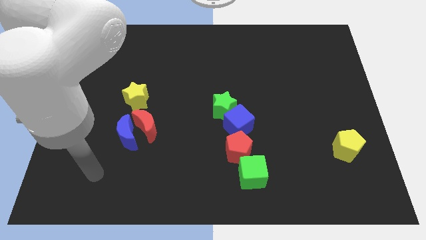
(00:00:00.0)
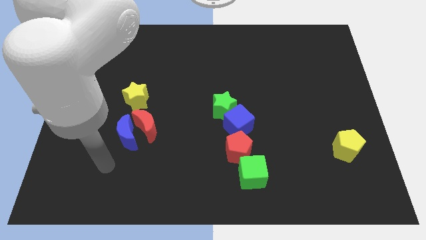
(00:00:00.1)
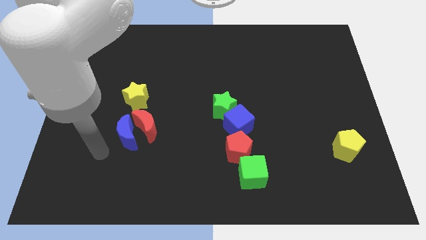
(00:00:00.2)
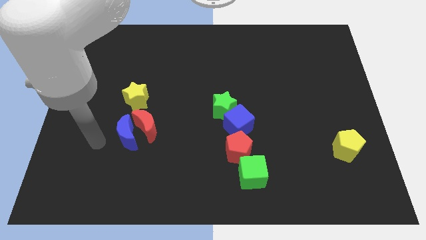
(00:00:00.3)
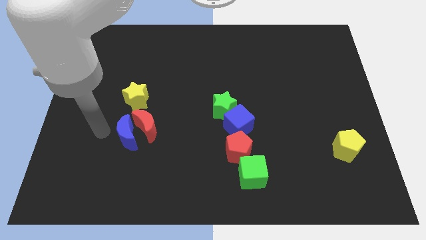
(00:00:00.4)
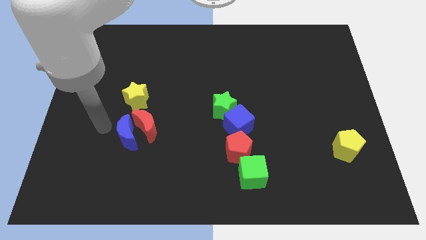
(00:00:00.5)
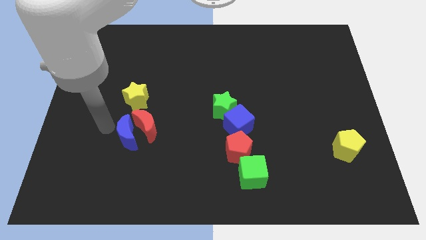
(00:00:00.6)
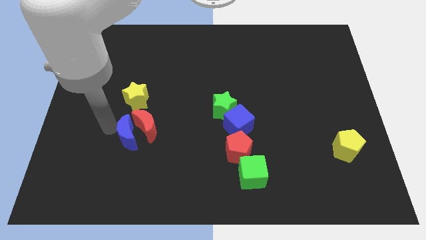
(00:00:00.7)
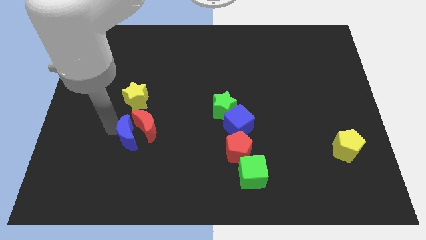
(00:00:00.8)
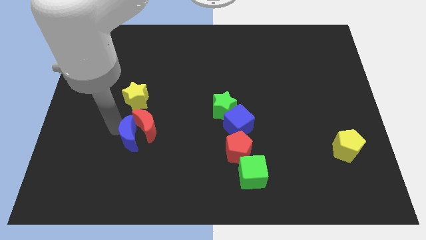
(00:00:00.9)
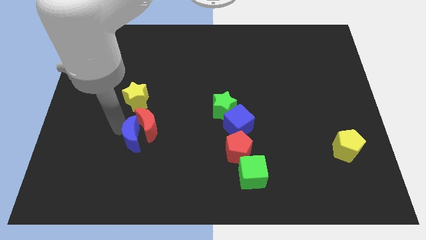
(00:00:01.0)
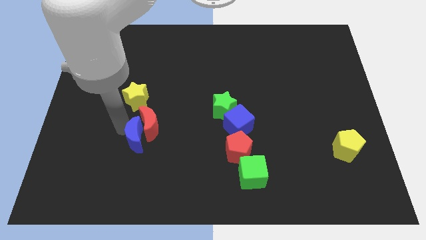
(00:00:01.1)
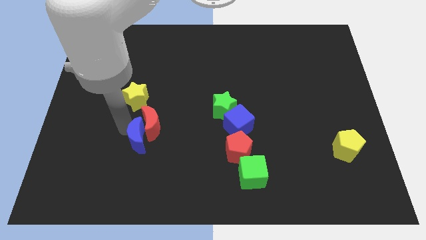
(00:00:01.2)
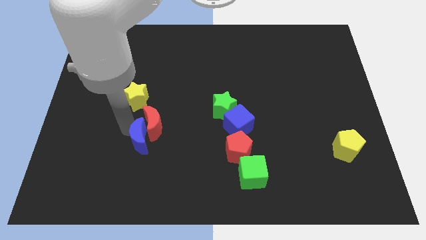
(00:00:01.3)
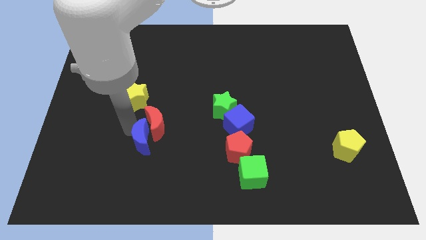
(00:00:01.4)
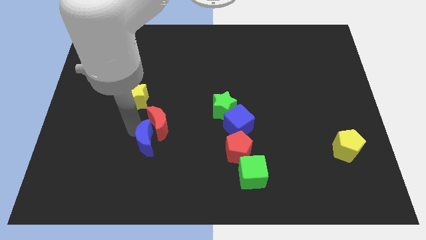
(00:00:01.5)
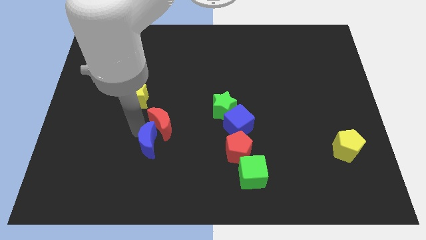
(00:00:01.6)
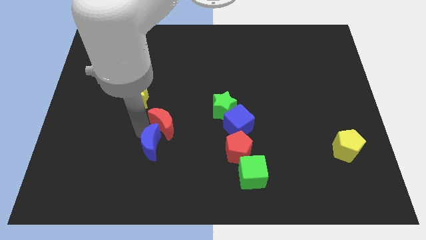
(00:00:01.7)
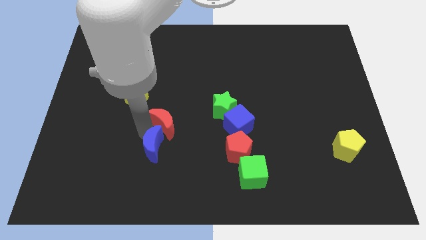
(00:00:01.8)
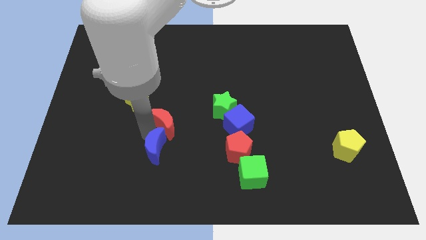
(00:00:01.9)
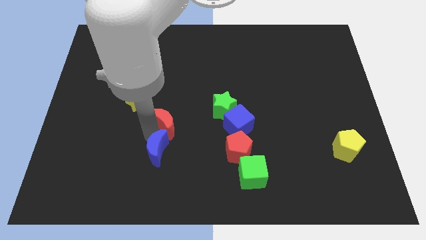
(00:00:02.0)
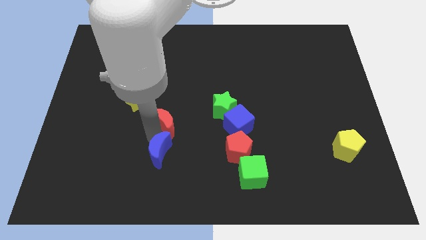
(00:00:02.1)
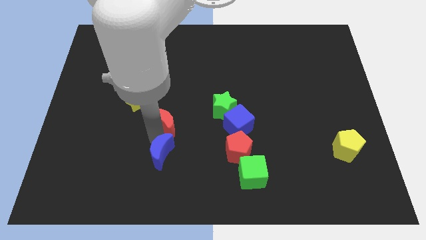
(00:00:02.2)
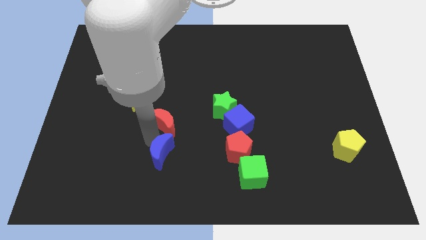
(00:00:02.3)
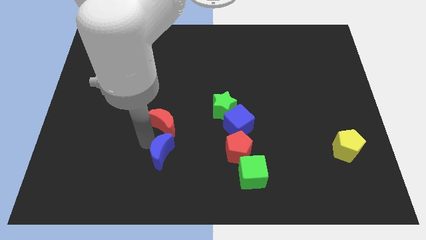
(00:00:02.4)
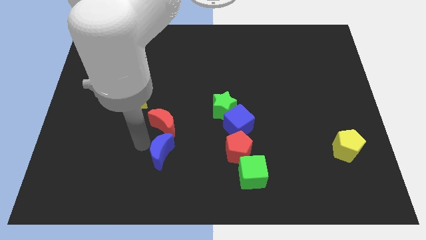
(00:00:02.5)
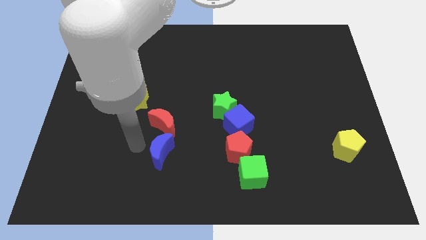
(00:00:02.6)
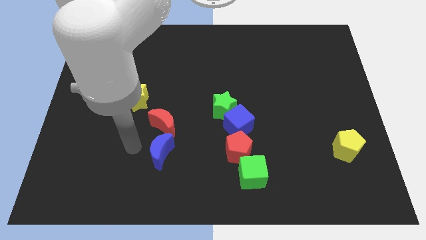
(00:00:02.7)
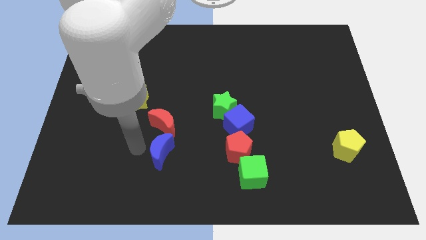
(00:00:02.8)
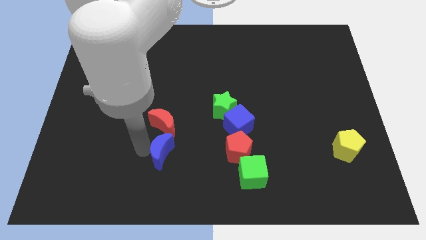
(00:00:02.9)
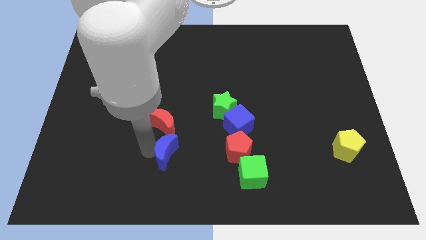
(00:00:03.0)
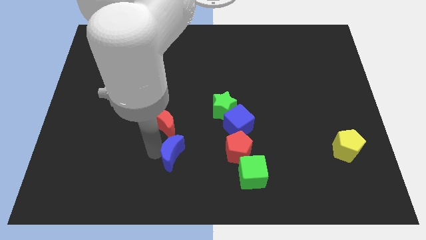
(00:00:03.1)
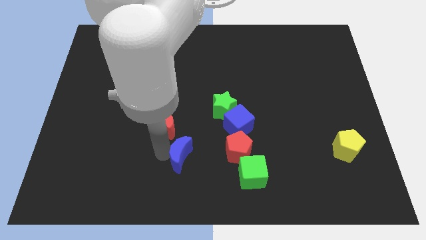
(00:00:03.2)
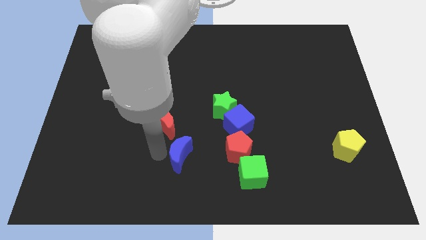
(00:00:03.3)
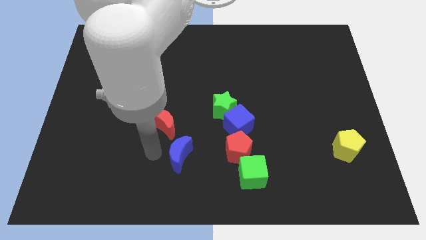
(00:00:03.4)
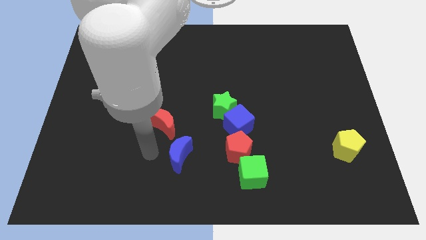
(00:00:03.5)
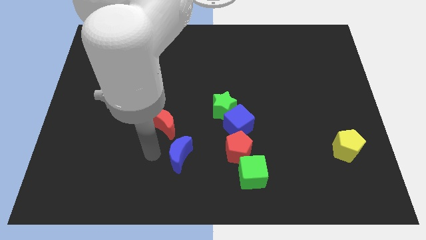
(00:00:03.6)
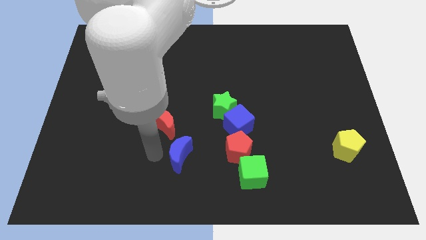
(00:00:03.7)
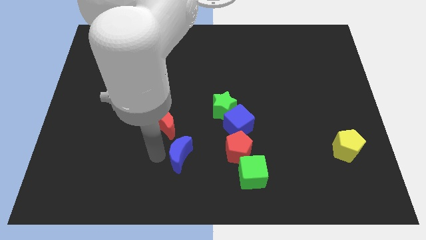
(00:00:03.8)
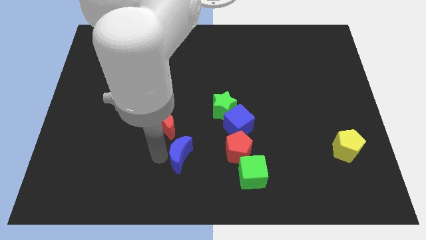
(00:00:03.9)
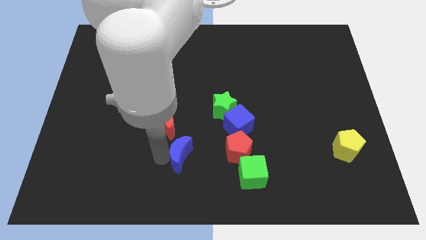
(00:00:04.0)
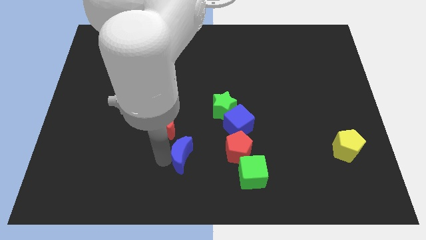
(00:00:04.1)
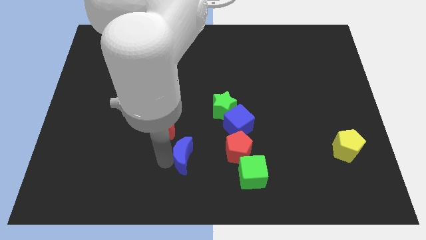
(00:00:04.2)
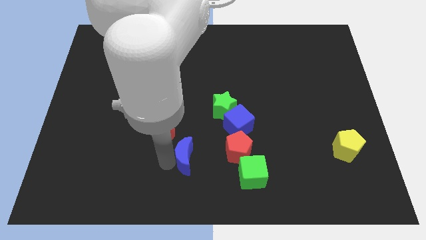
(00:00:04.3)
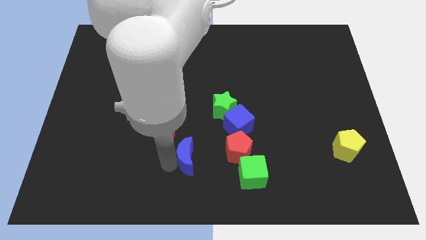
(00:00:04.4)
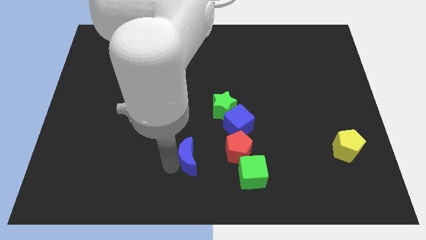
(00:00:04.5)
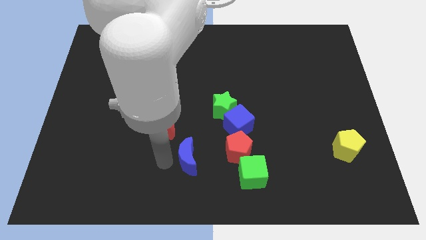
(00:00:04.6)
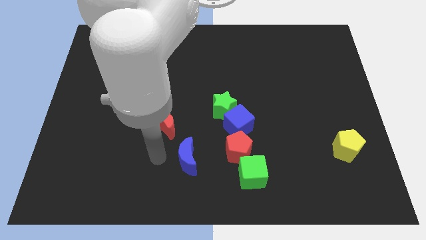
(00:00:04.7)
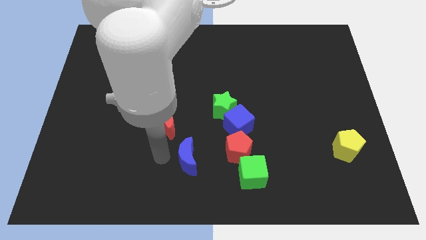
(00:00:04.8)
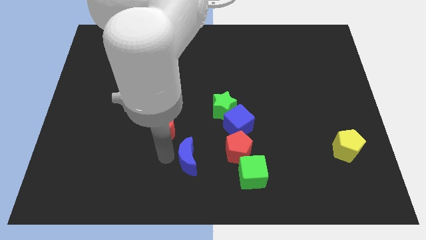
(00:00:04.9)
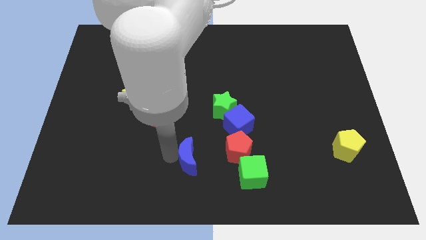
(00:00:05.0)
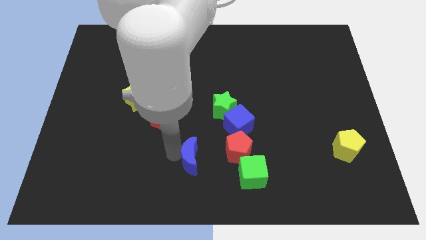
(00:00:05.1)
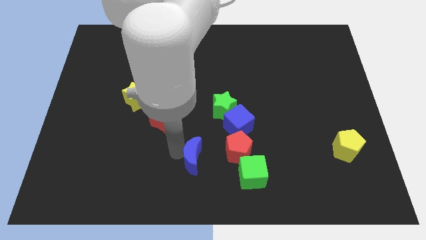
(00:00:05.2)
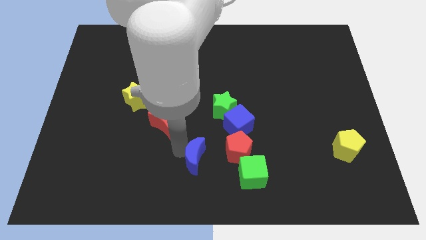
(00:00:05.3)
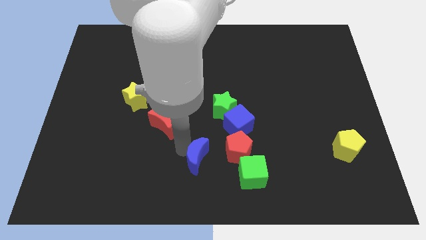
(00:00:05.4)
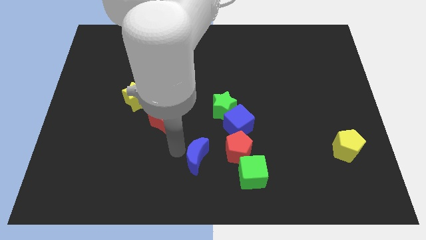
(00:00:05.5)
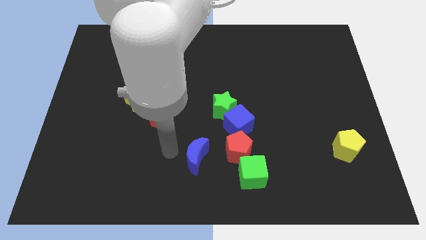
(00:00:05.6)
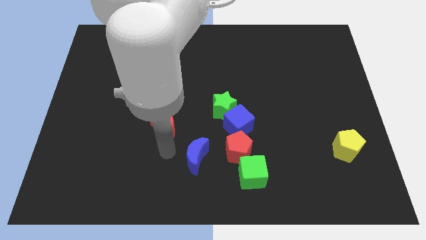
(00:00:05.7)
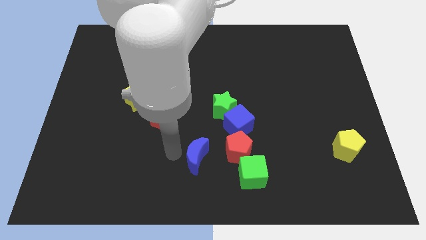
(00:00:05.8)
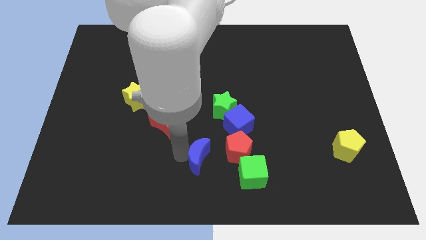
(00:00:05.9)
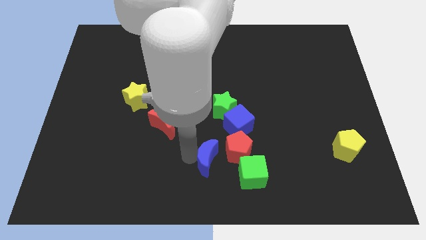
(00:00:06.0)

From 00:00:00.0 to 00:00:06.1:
push the blue moon below the green star
